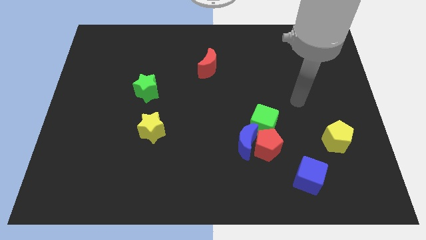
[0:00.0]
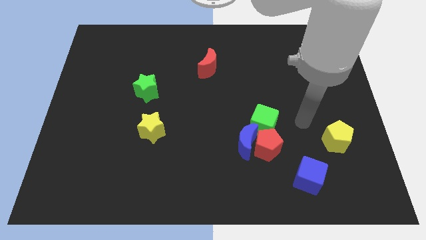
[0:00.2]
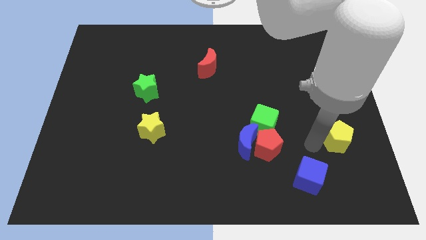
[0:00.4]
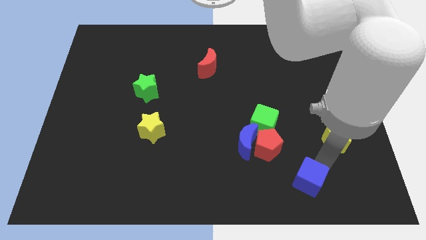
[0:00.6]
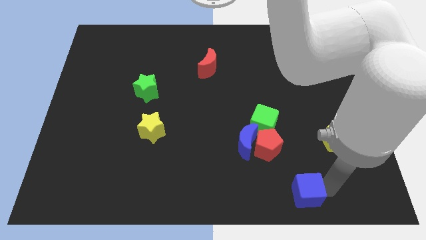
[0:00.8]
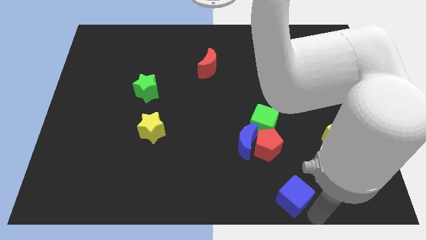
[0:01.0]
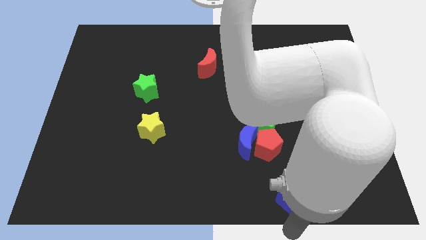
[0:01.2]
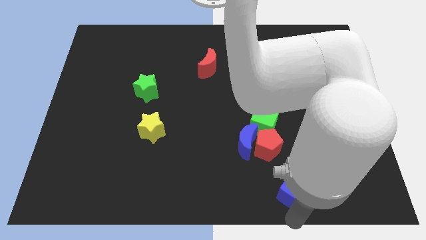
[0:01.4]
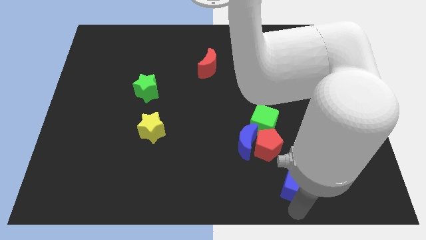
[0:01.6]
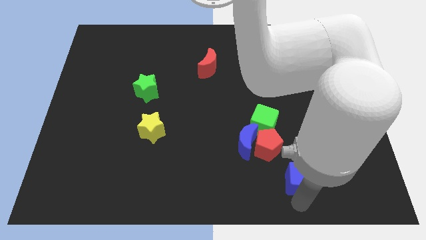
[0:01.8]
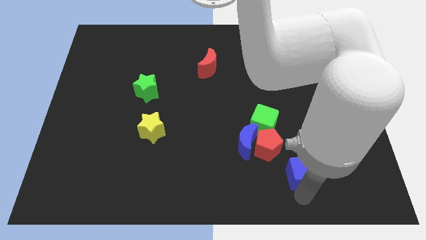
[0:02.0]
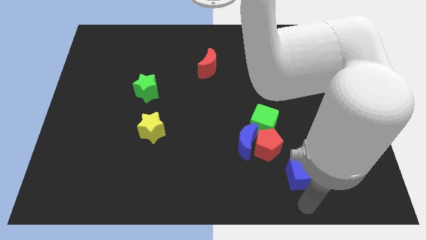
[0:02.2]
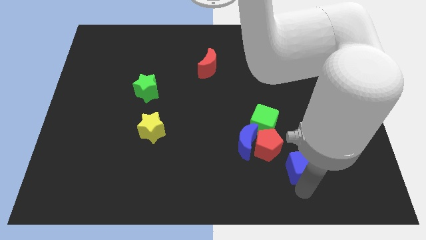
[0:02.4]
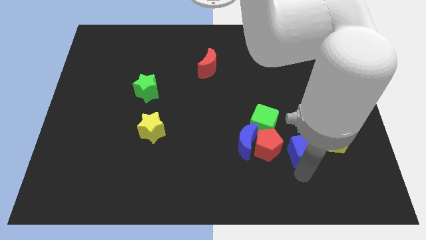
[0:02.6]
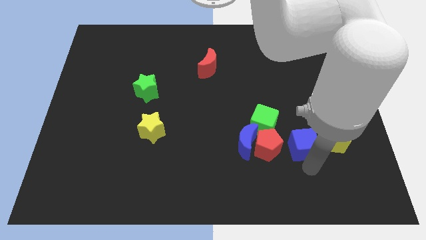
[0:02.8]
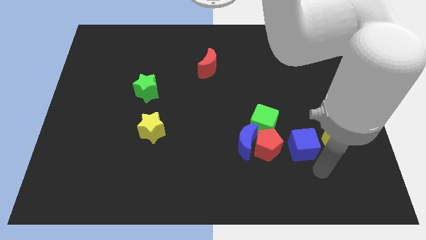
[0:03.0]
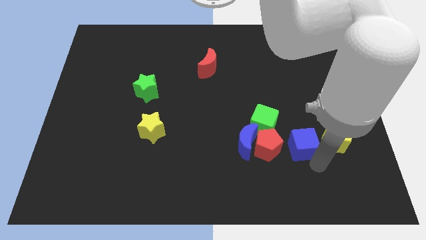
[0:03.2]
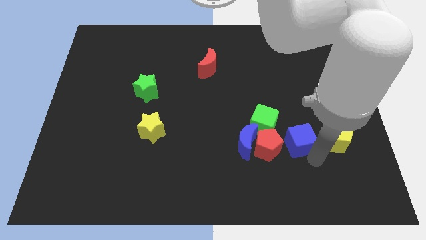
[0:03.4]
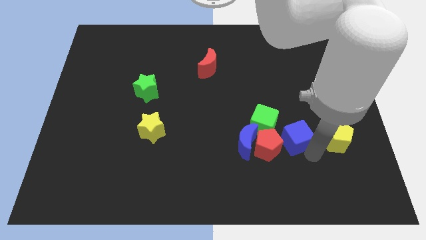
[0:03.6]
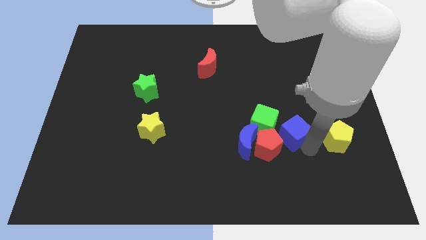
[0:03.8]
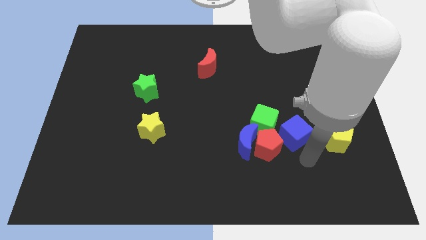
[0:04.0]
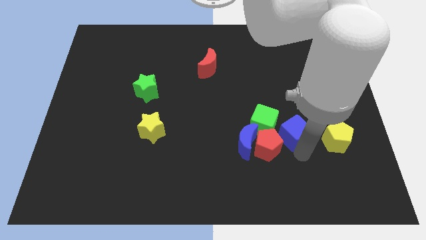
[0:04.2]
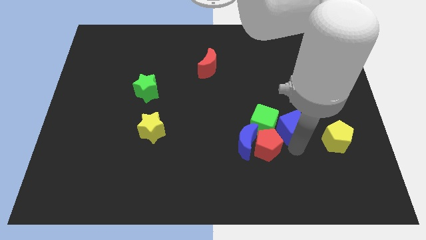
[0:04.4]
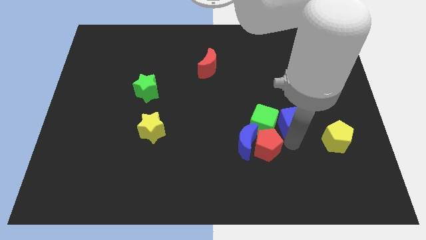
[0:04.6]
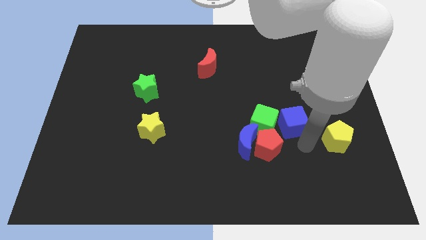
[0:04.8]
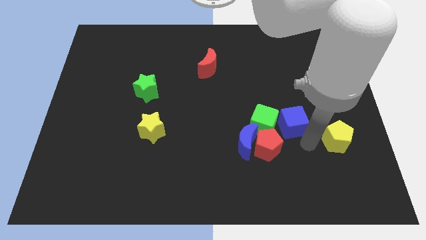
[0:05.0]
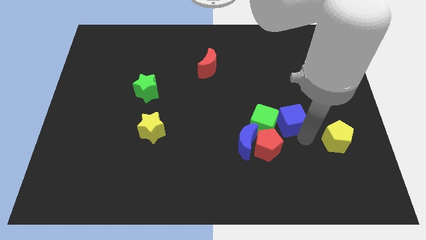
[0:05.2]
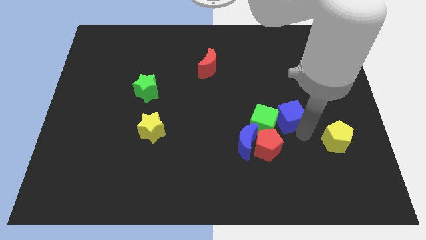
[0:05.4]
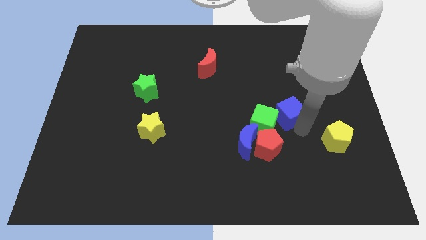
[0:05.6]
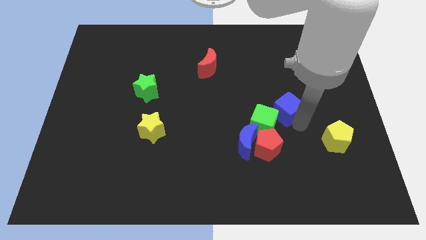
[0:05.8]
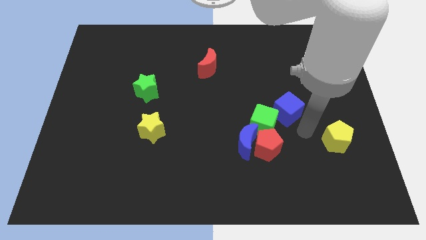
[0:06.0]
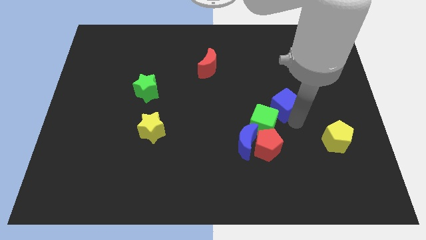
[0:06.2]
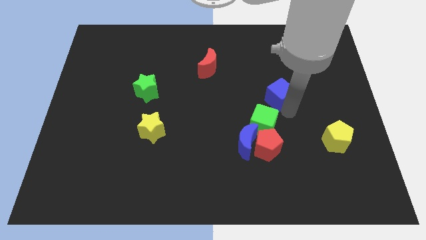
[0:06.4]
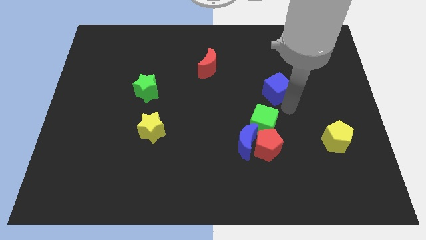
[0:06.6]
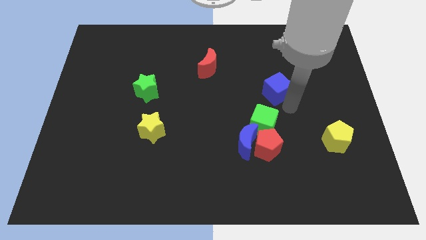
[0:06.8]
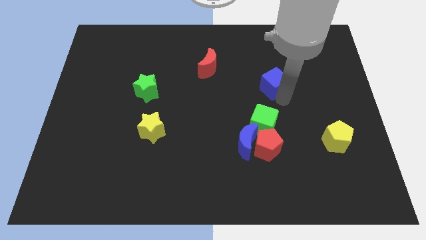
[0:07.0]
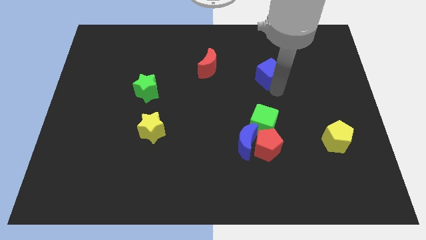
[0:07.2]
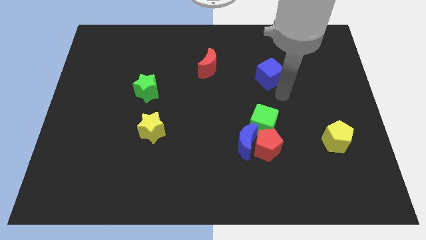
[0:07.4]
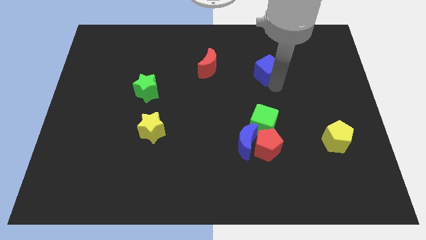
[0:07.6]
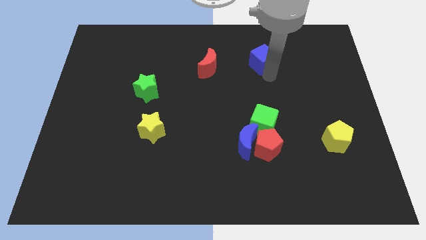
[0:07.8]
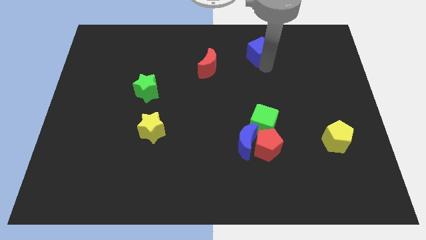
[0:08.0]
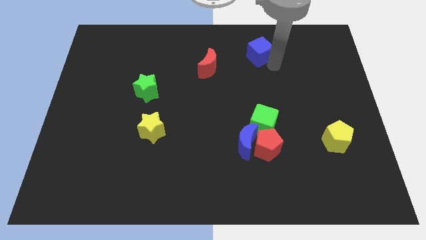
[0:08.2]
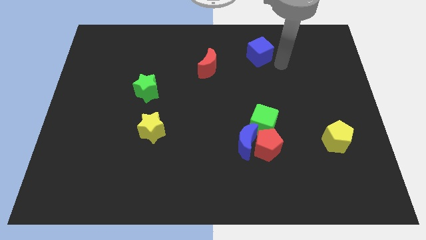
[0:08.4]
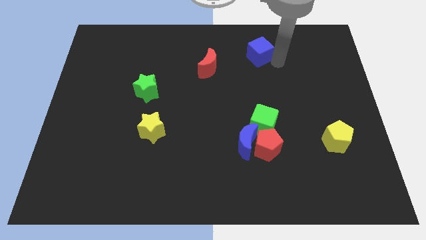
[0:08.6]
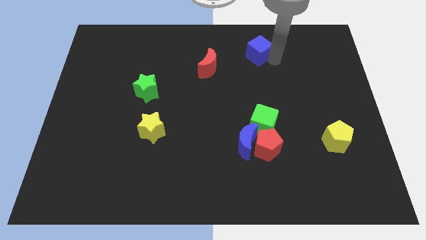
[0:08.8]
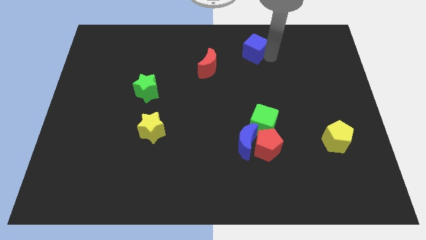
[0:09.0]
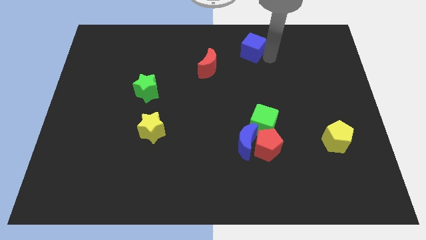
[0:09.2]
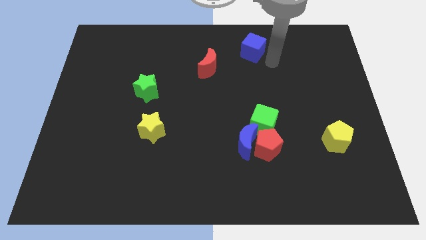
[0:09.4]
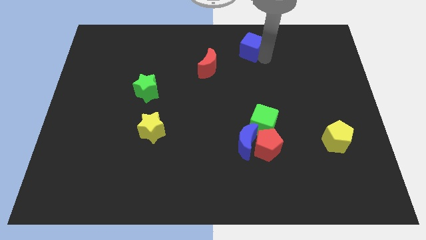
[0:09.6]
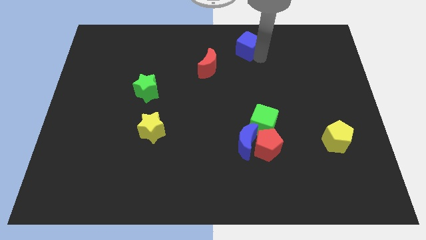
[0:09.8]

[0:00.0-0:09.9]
push the blue cube to the towards your base

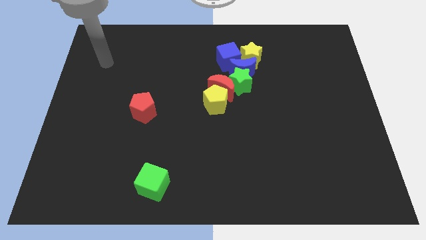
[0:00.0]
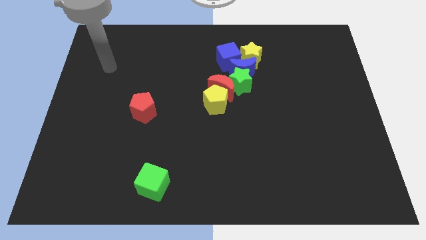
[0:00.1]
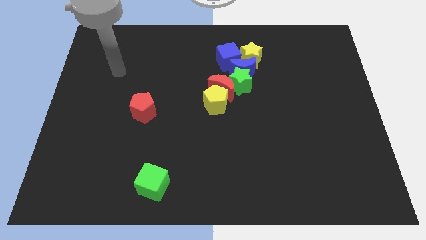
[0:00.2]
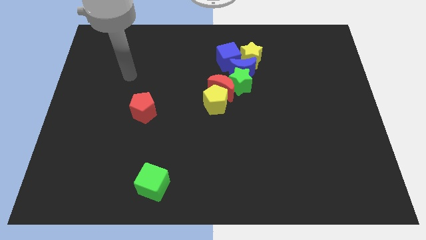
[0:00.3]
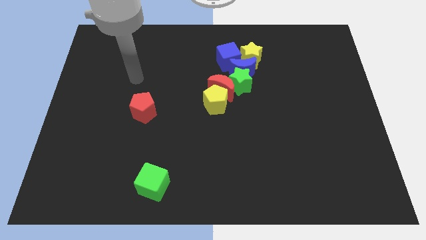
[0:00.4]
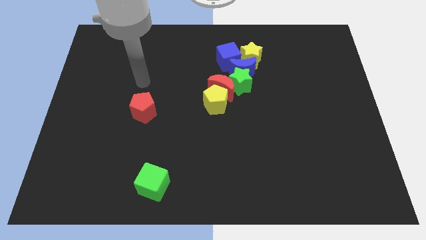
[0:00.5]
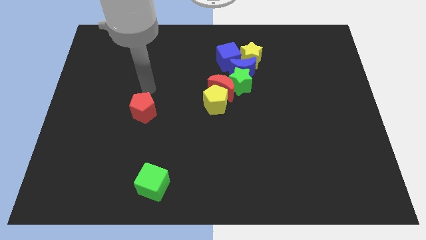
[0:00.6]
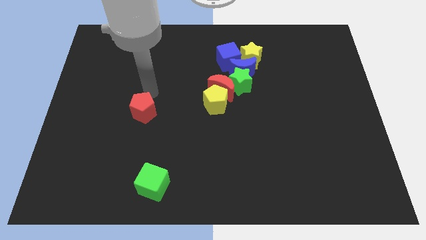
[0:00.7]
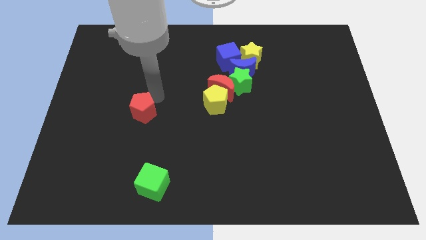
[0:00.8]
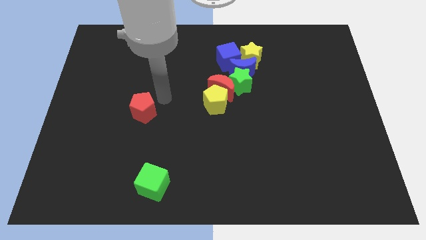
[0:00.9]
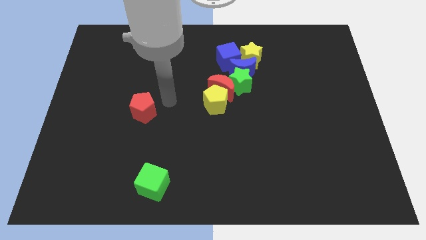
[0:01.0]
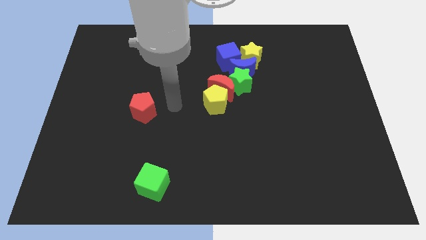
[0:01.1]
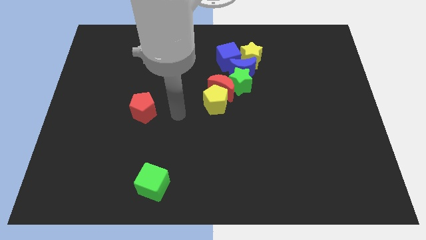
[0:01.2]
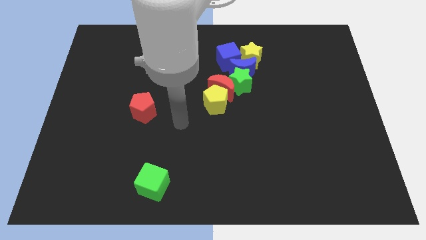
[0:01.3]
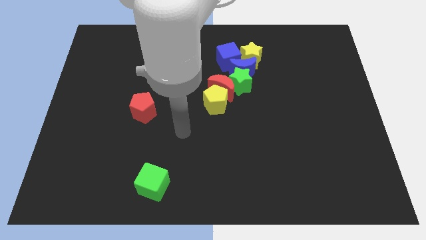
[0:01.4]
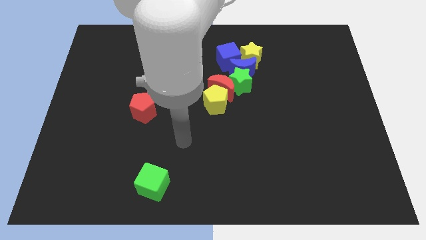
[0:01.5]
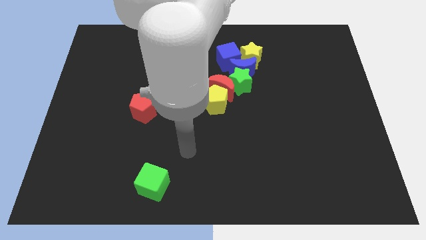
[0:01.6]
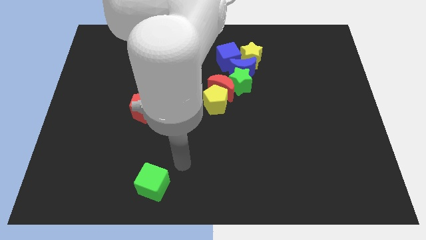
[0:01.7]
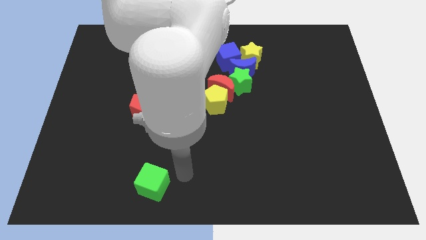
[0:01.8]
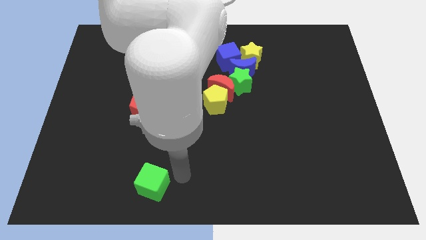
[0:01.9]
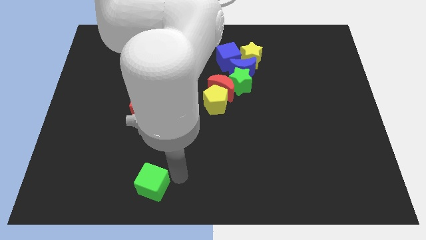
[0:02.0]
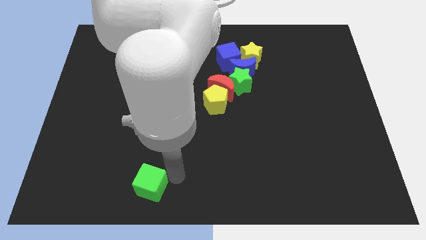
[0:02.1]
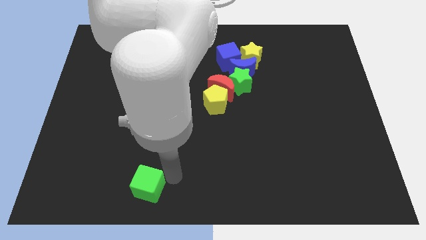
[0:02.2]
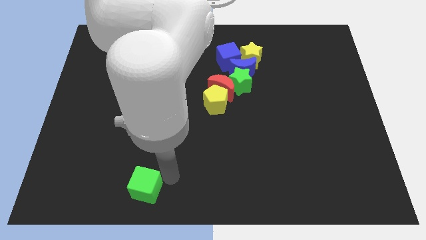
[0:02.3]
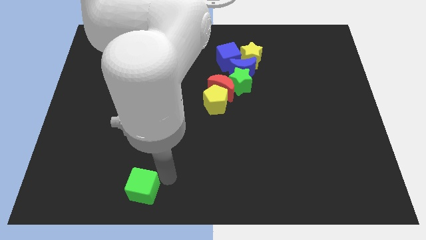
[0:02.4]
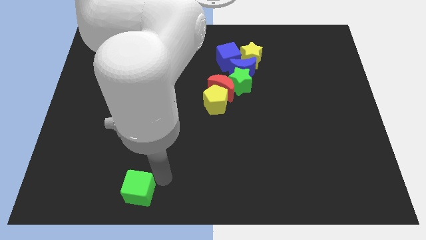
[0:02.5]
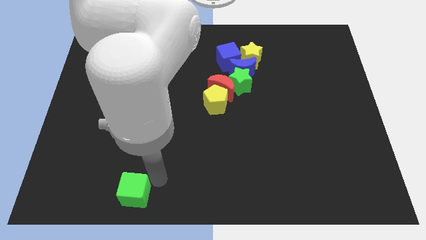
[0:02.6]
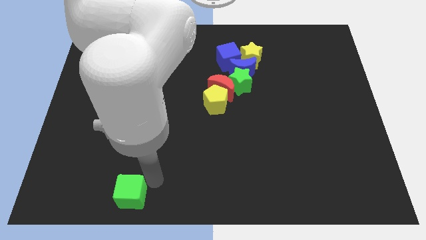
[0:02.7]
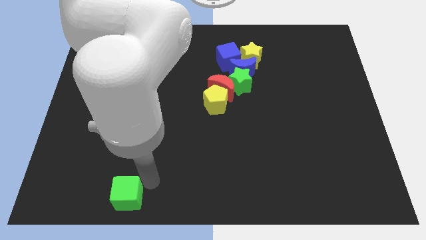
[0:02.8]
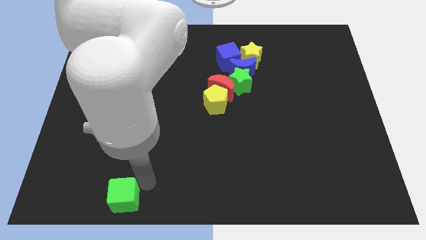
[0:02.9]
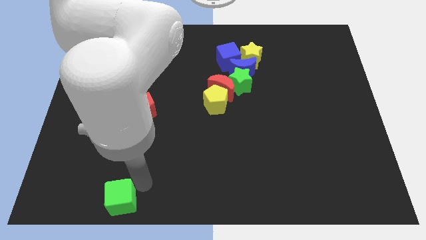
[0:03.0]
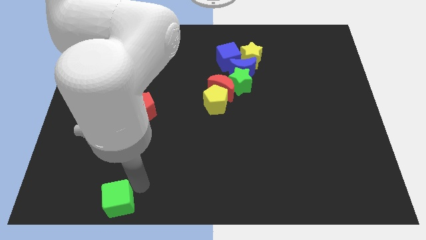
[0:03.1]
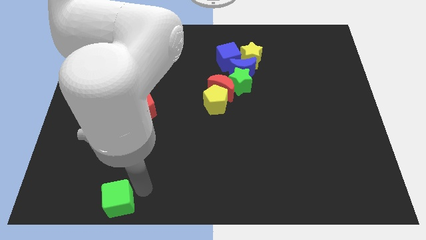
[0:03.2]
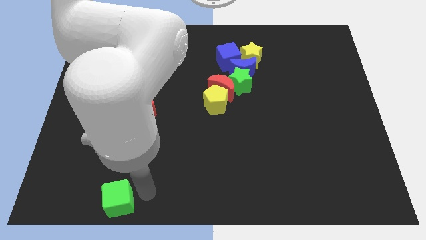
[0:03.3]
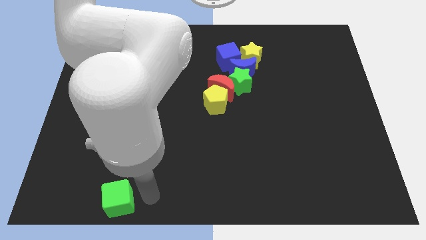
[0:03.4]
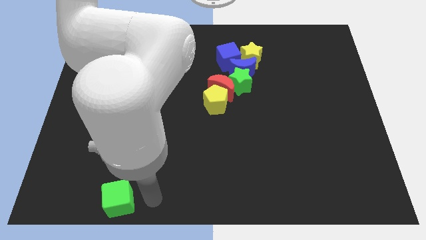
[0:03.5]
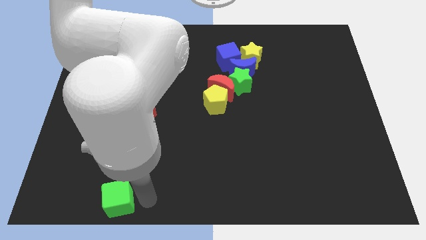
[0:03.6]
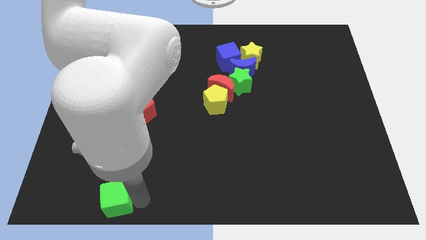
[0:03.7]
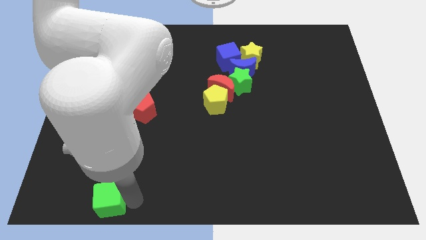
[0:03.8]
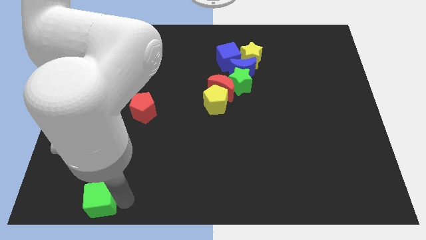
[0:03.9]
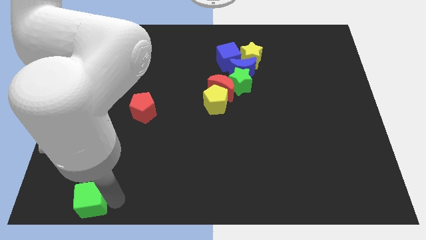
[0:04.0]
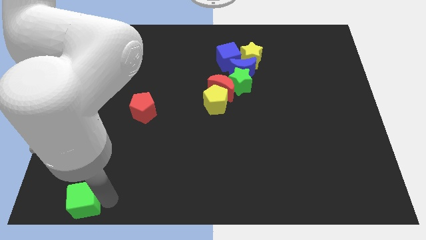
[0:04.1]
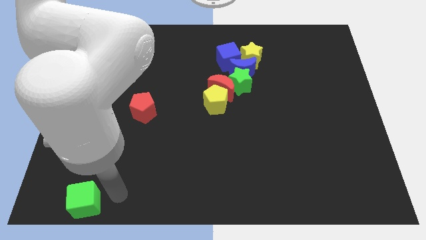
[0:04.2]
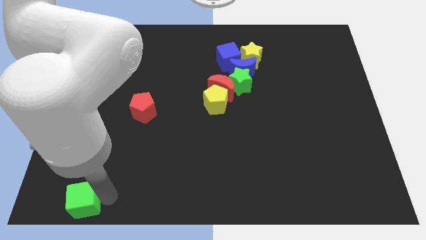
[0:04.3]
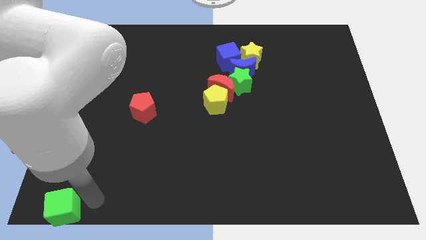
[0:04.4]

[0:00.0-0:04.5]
put the green cube to the bottom left of the board
